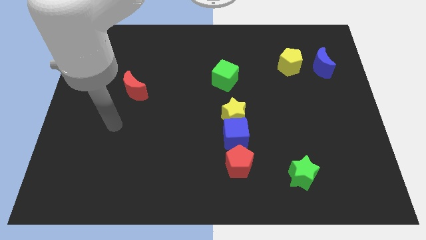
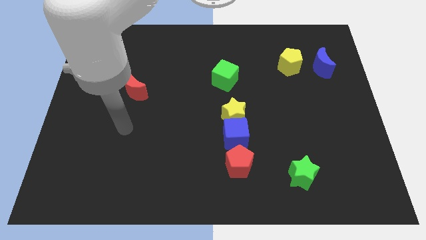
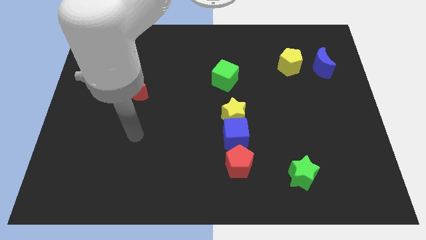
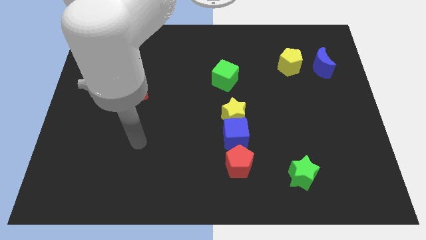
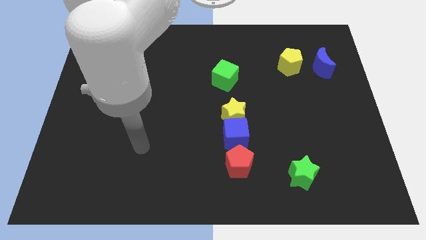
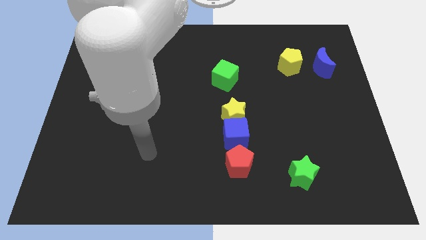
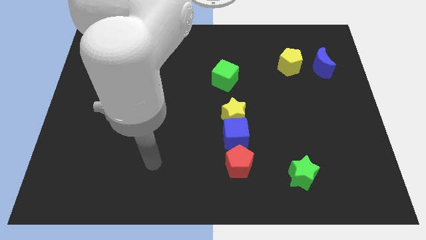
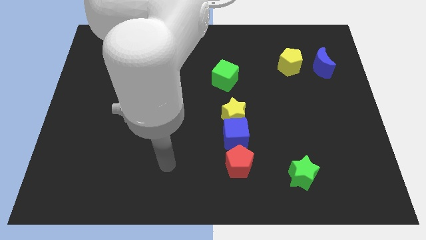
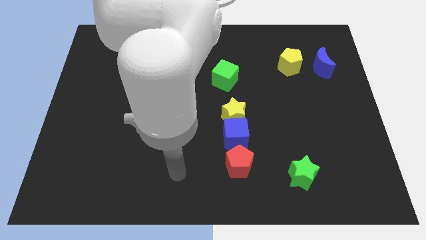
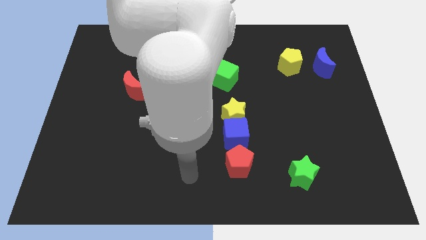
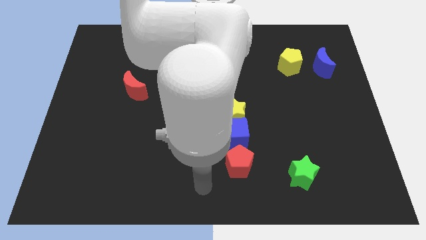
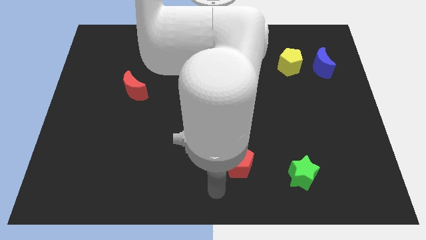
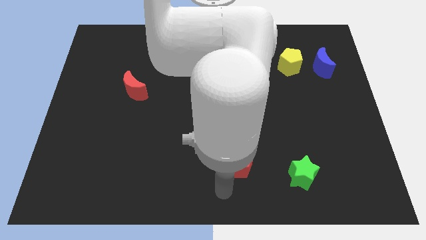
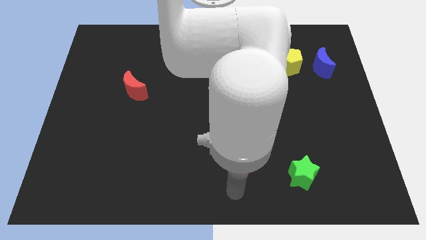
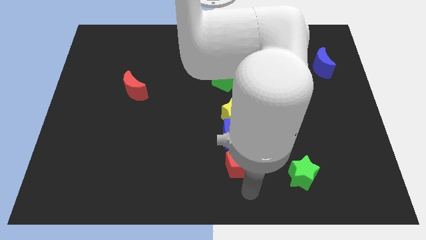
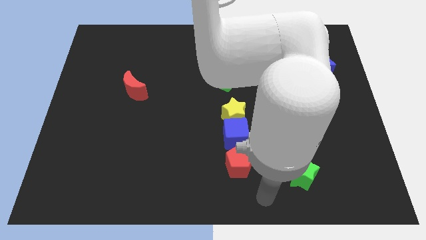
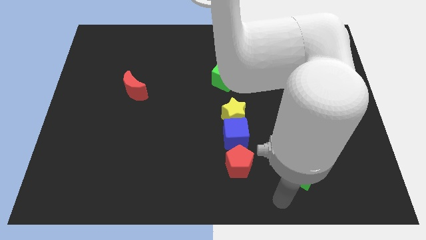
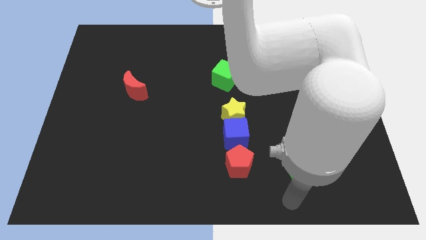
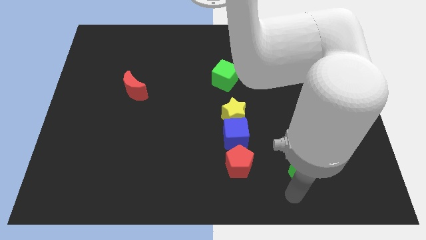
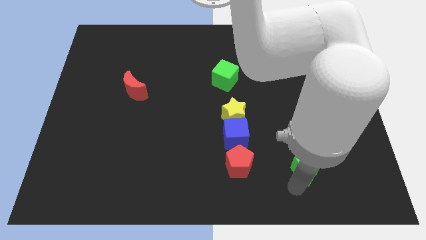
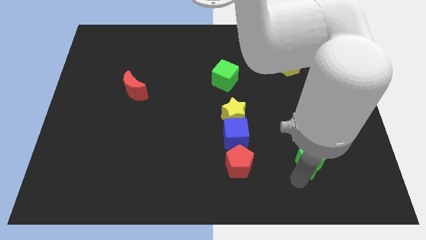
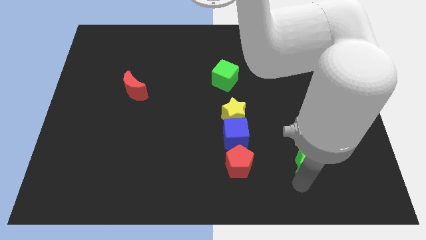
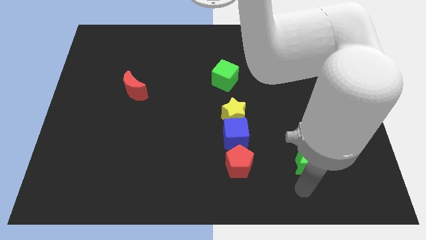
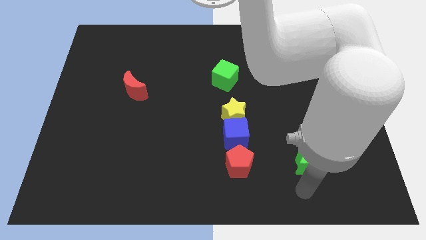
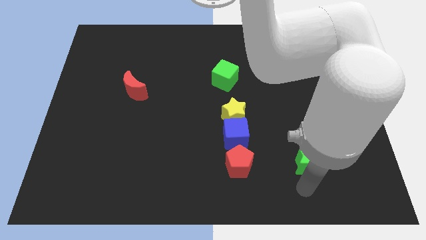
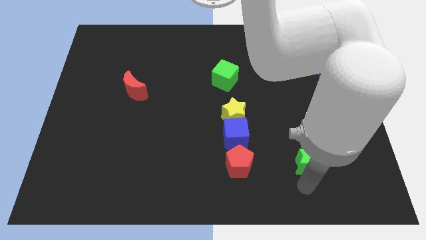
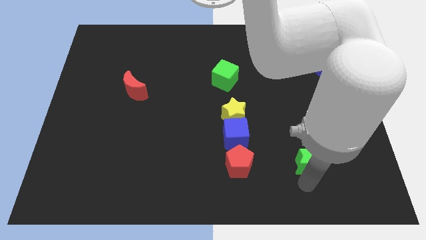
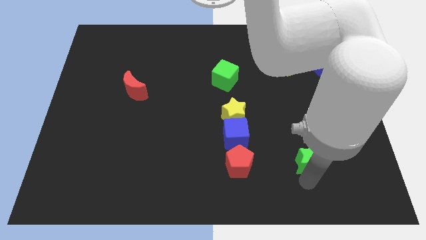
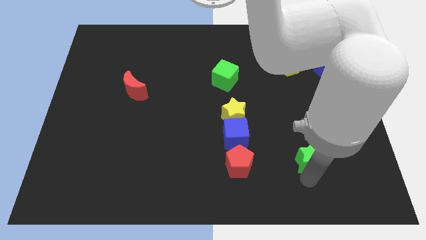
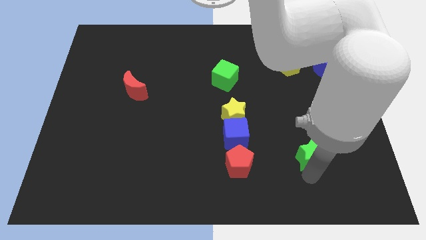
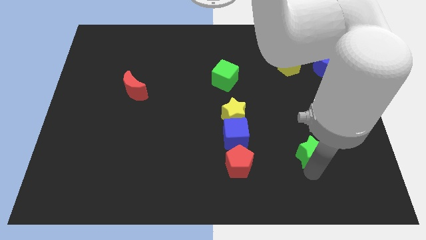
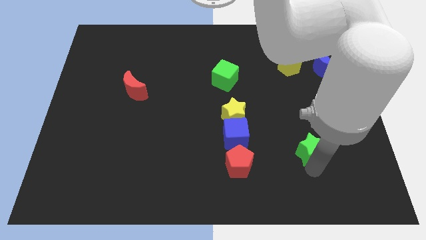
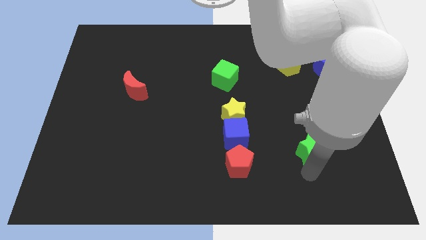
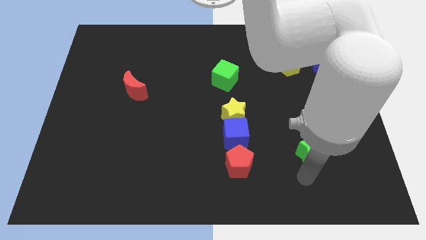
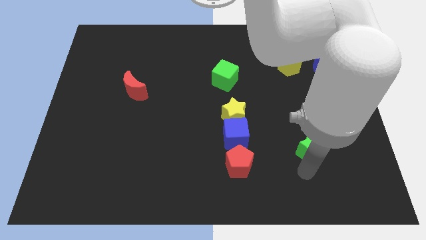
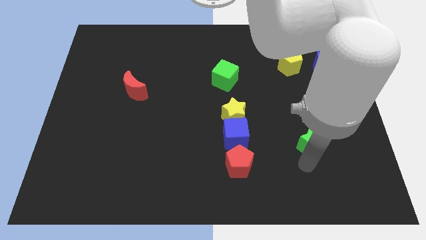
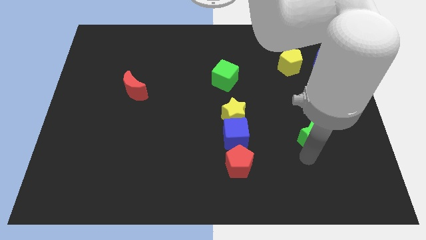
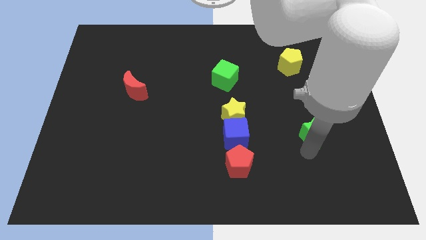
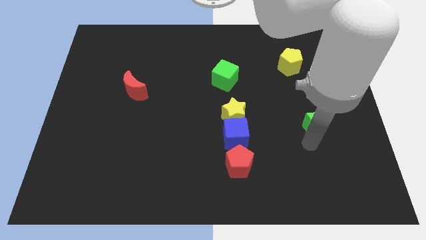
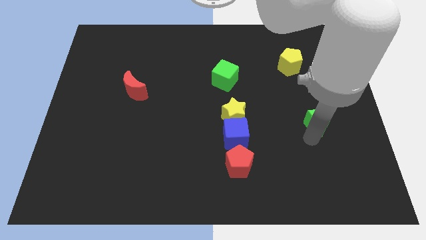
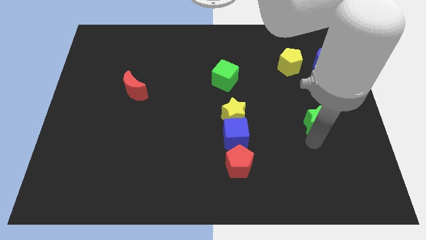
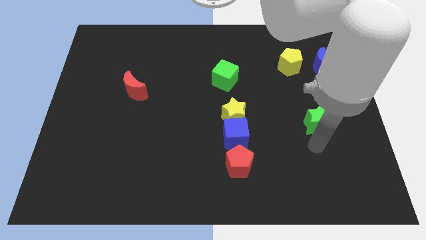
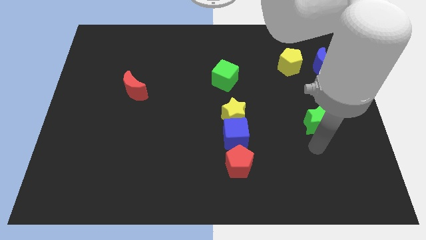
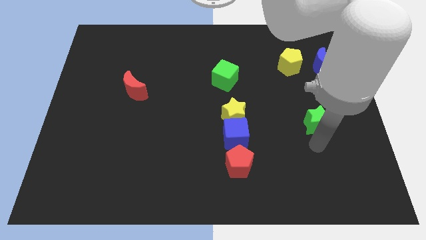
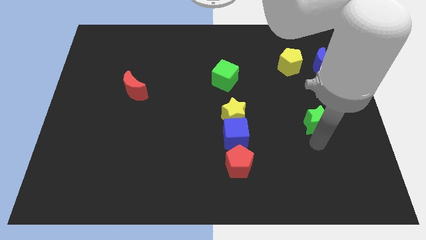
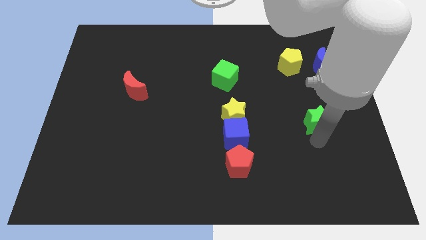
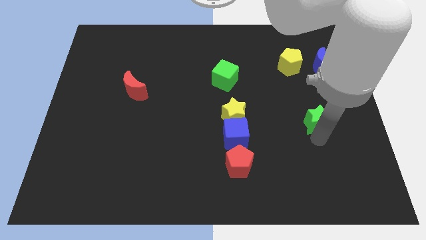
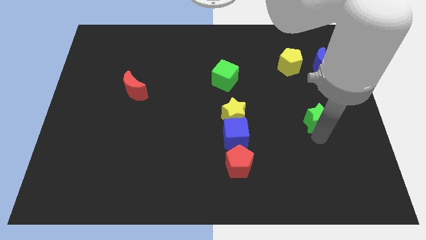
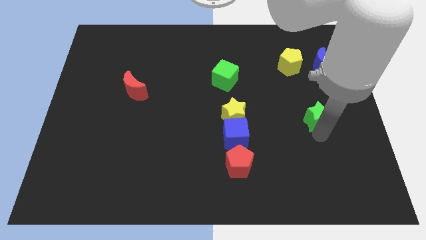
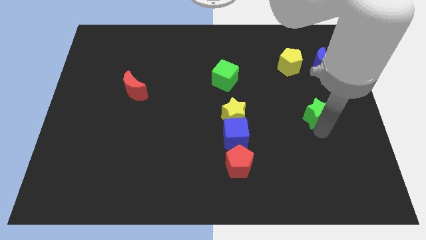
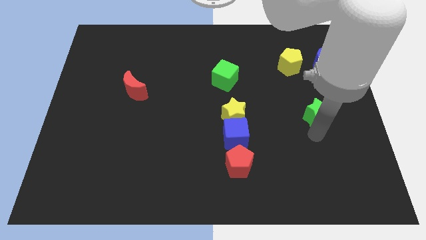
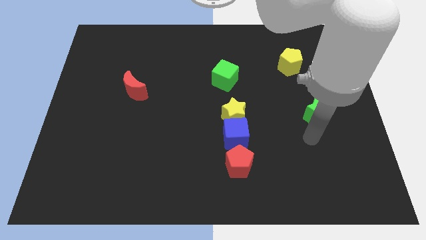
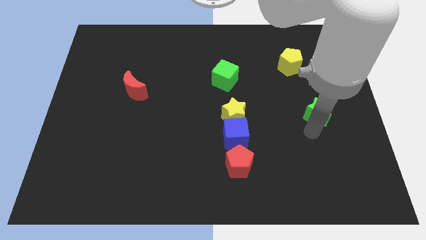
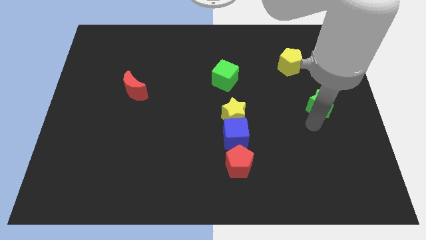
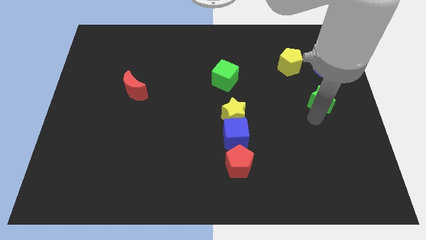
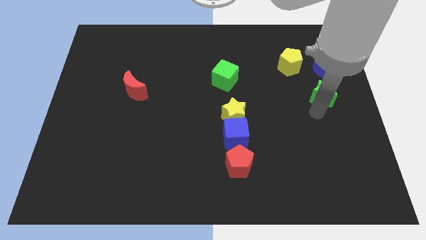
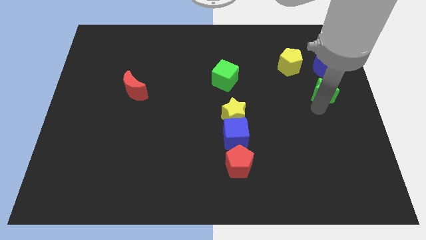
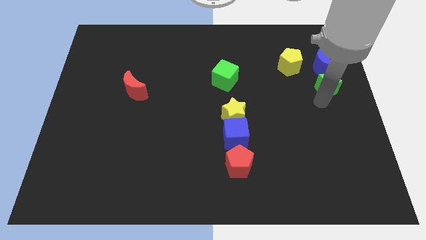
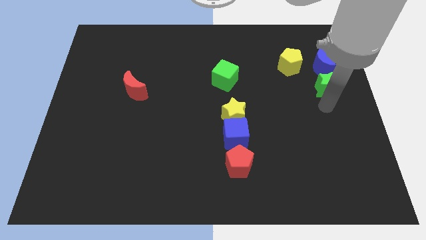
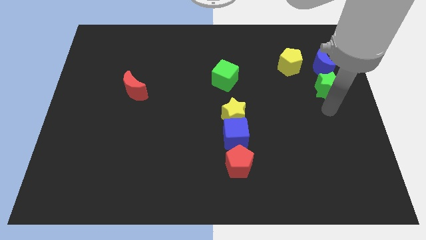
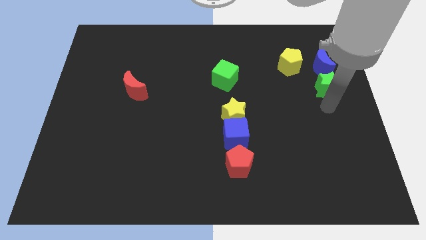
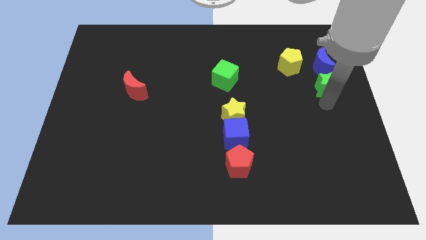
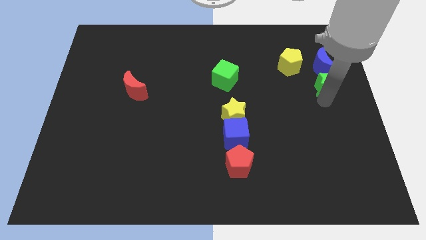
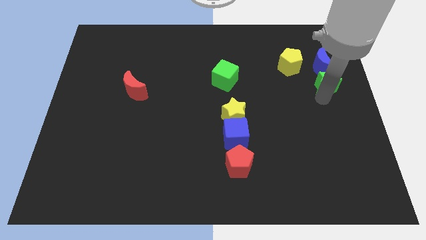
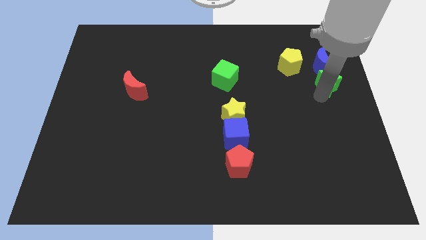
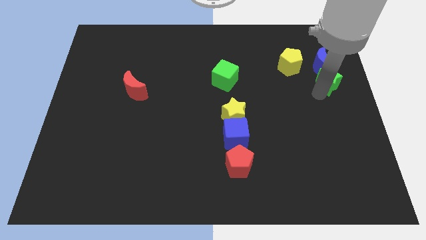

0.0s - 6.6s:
move the green star close to the blue moon
